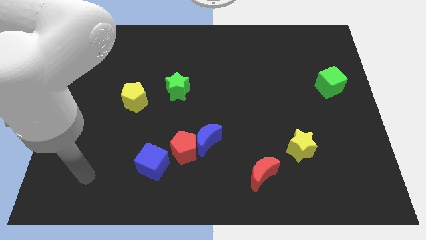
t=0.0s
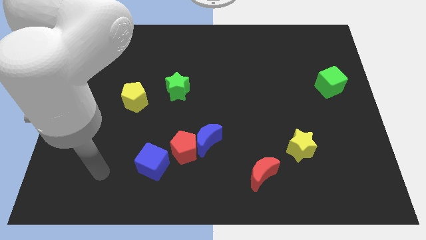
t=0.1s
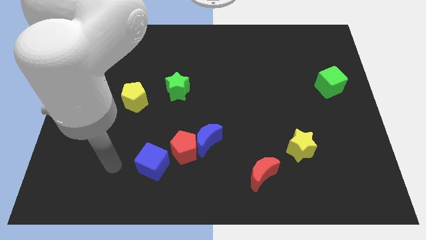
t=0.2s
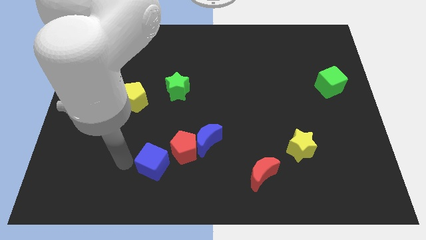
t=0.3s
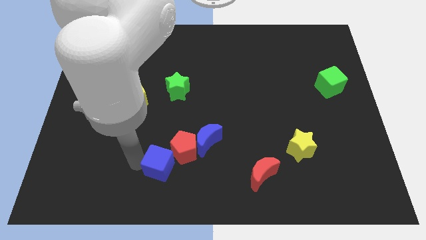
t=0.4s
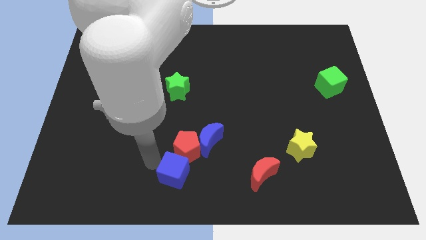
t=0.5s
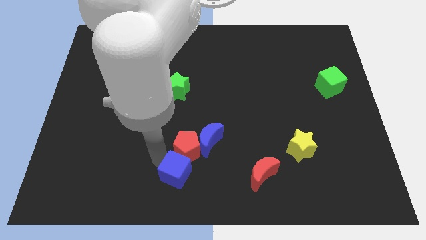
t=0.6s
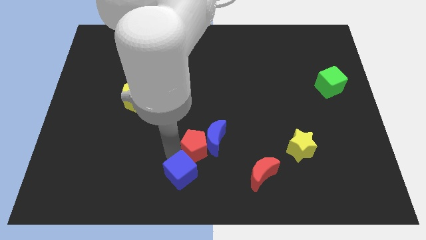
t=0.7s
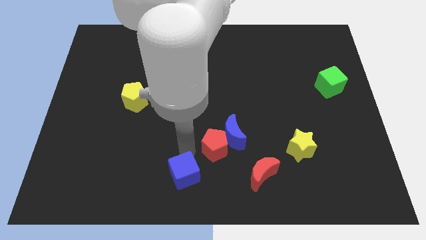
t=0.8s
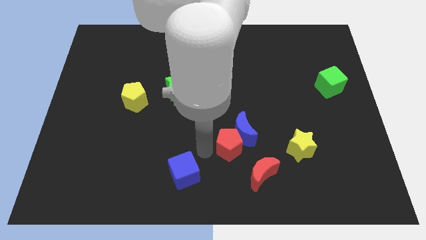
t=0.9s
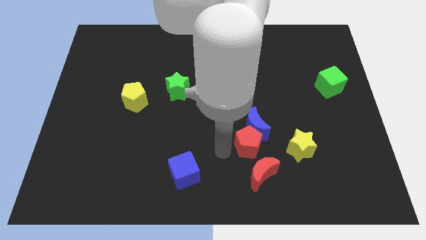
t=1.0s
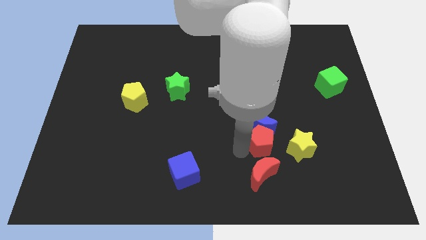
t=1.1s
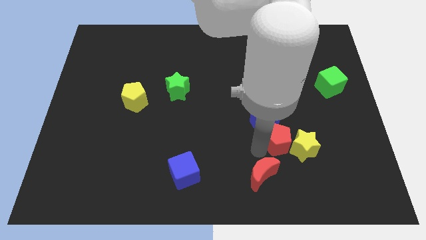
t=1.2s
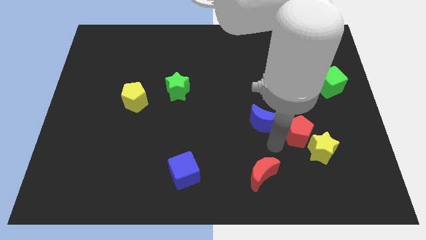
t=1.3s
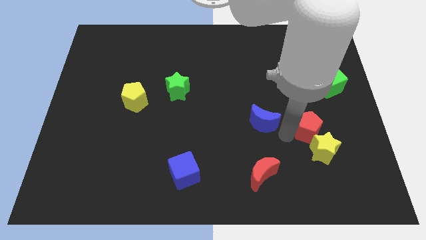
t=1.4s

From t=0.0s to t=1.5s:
move the blue moon away from the red pentagon

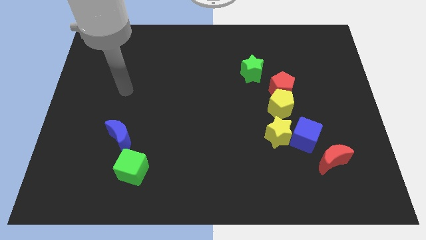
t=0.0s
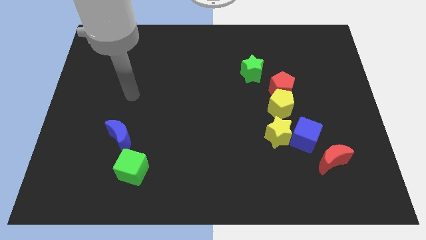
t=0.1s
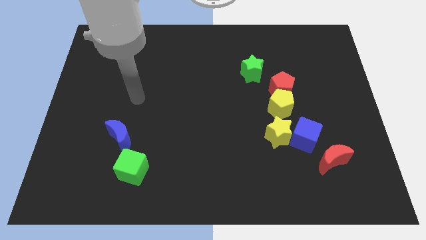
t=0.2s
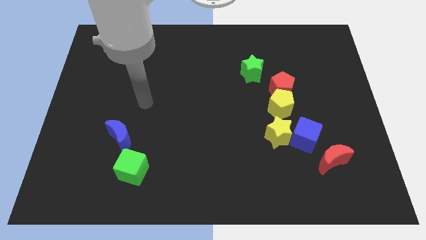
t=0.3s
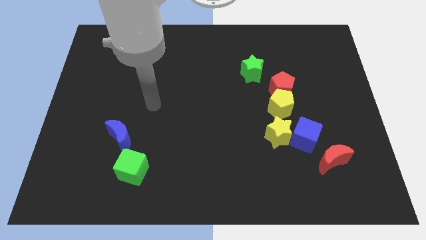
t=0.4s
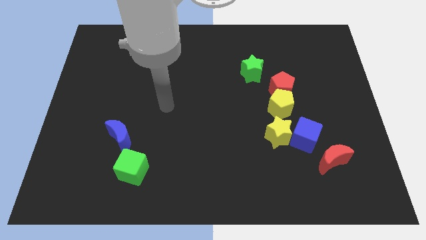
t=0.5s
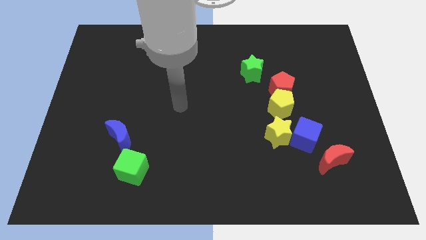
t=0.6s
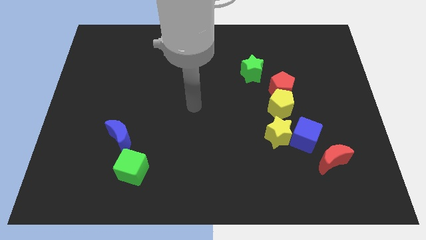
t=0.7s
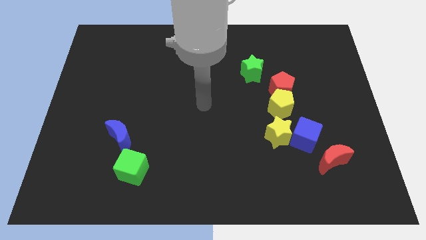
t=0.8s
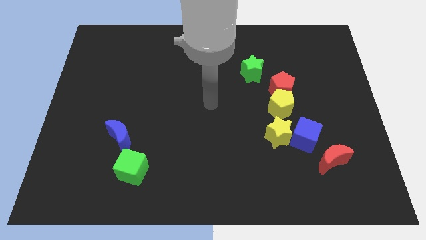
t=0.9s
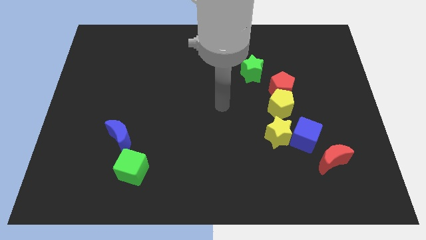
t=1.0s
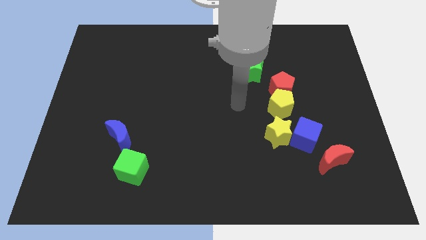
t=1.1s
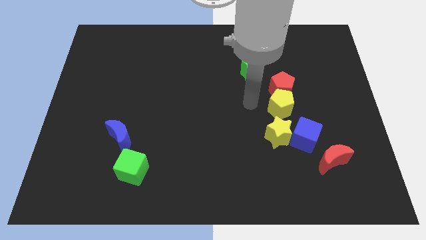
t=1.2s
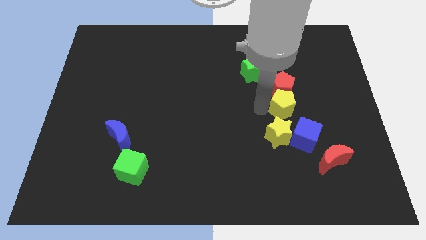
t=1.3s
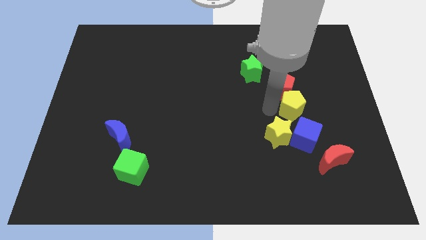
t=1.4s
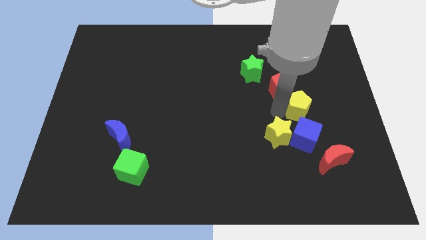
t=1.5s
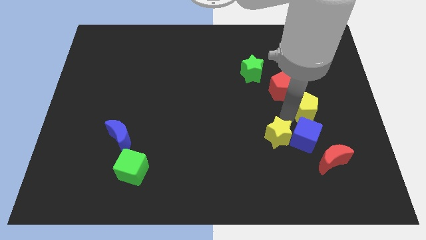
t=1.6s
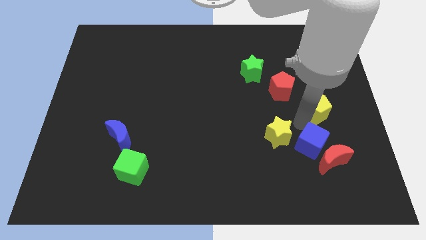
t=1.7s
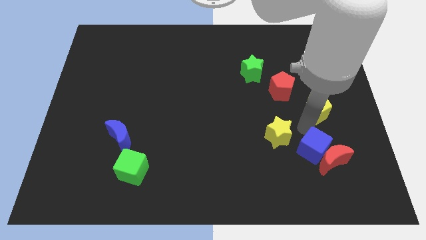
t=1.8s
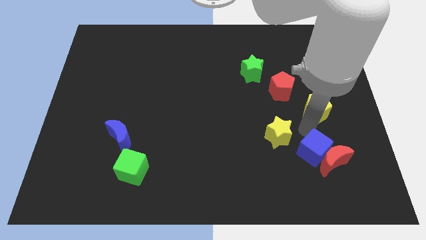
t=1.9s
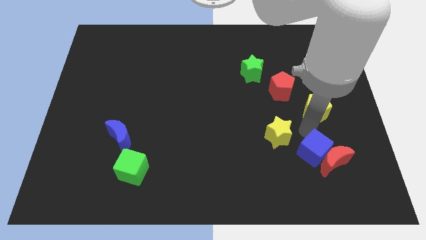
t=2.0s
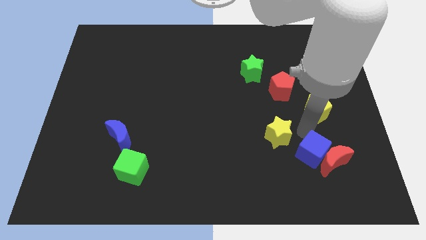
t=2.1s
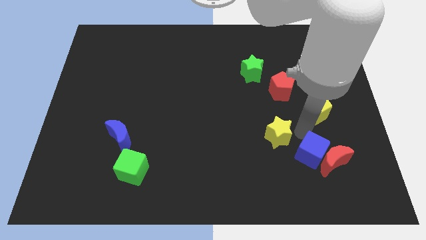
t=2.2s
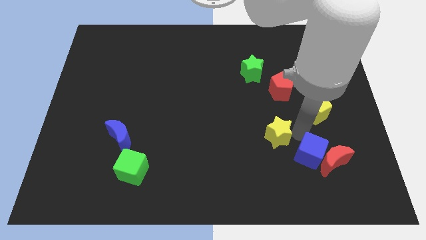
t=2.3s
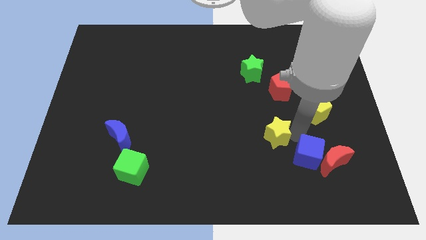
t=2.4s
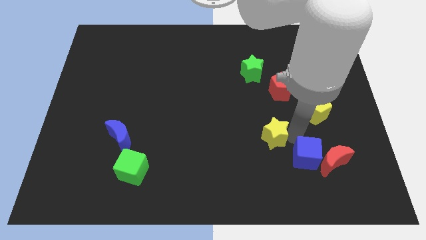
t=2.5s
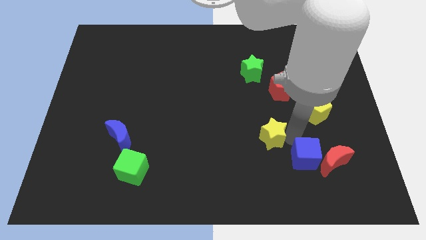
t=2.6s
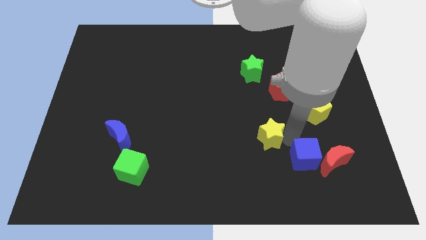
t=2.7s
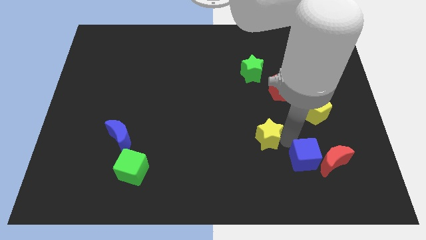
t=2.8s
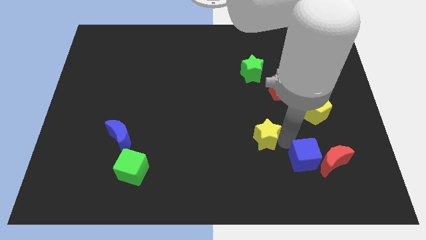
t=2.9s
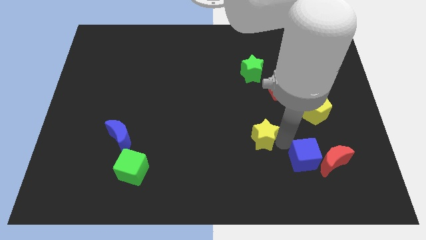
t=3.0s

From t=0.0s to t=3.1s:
pull the yellow star apart from the blue cube and yellow pentagon

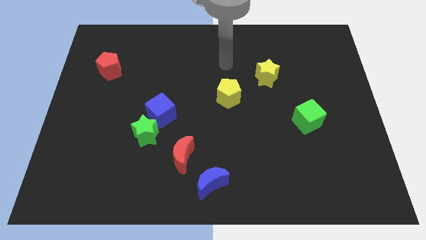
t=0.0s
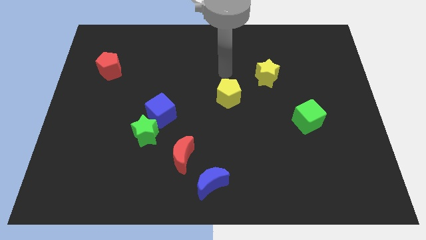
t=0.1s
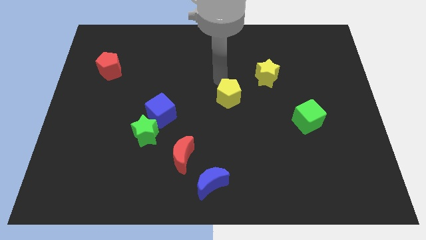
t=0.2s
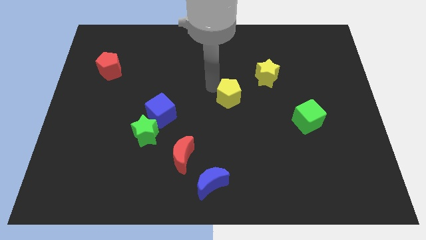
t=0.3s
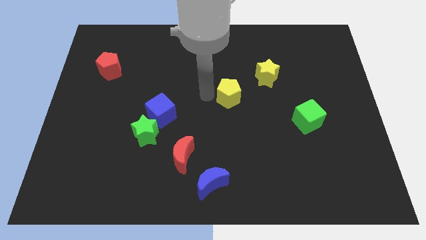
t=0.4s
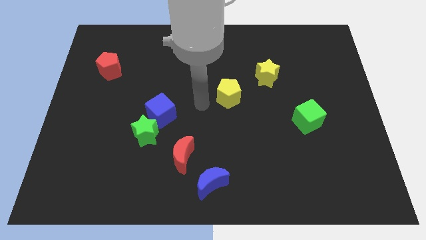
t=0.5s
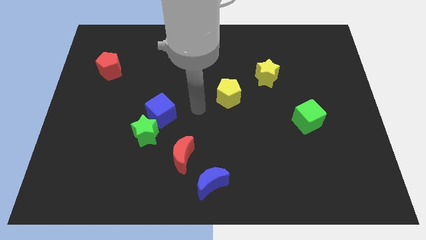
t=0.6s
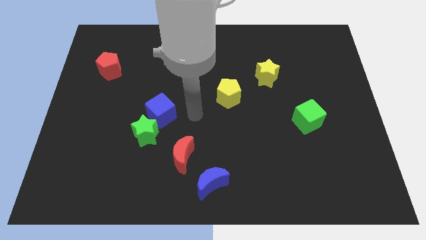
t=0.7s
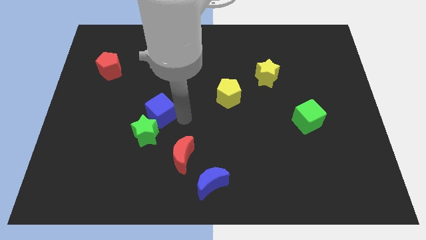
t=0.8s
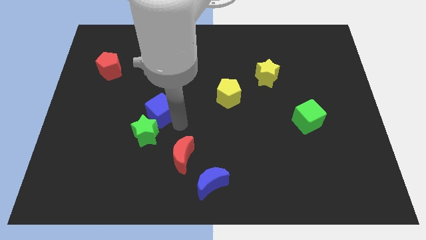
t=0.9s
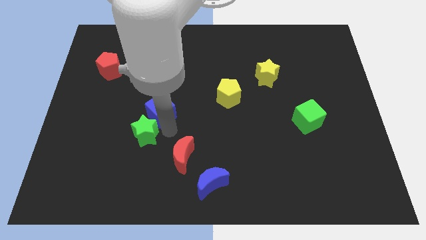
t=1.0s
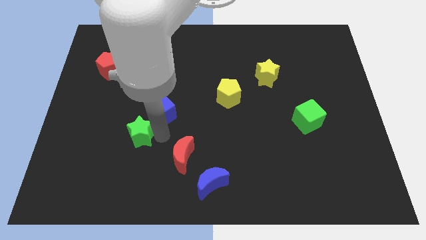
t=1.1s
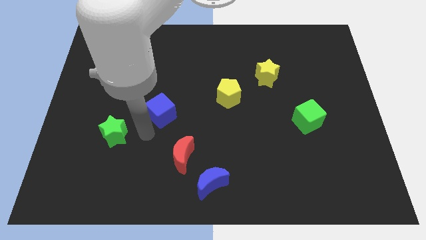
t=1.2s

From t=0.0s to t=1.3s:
move the blue cube away from the green star

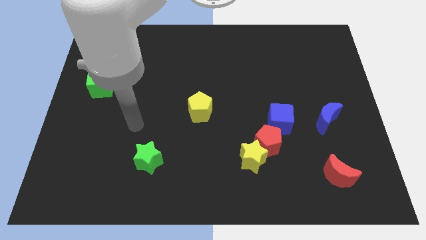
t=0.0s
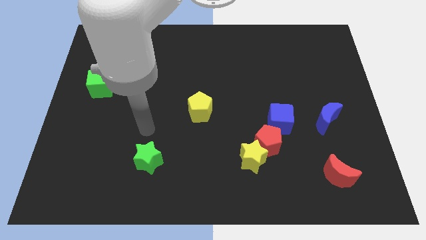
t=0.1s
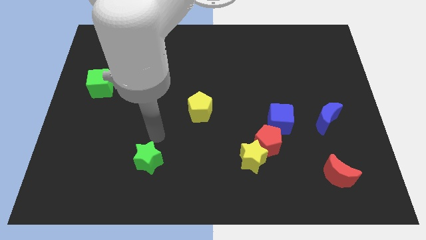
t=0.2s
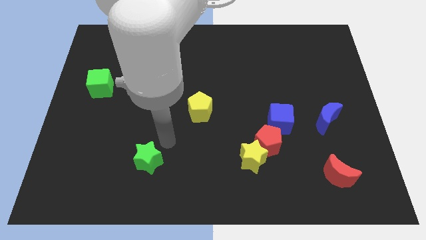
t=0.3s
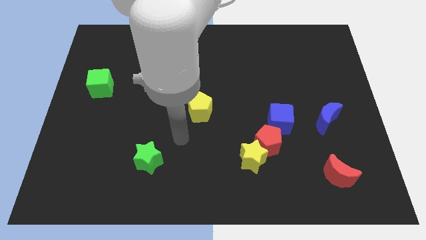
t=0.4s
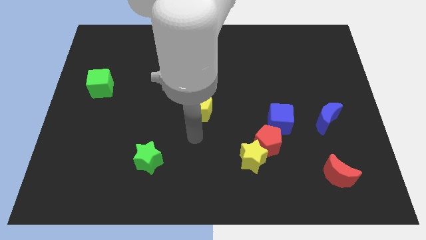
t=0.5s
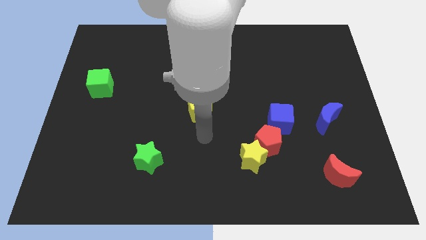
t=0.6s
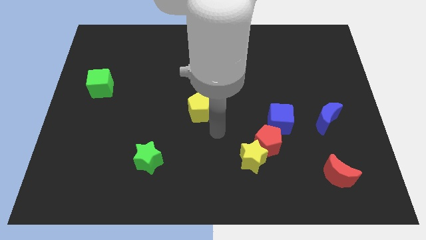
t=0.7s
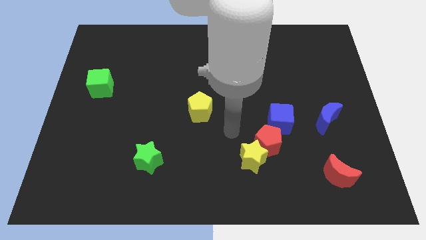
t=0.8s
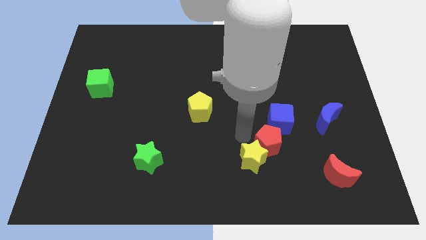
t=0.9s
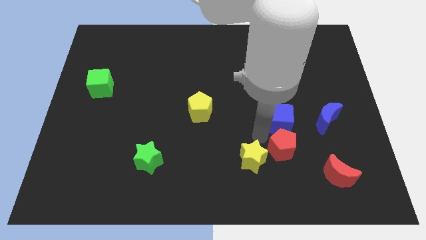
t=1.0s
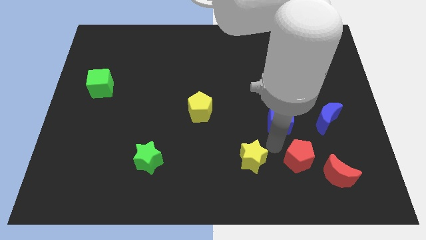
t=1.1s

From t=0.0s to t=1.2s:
separate the yellow star from the red pentagon

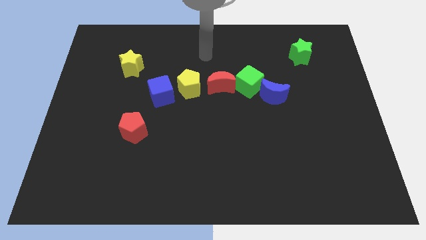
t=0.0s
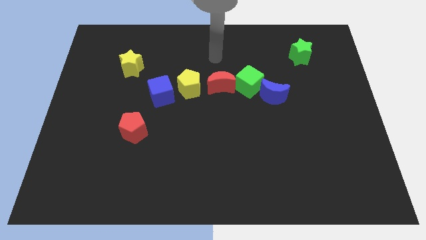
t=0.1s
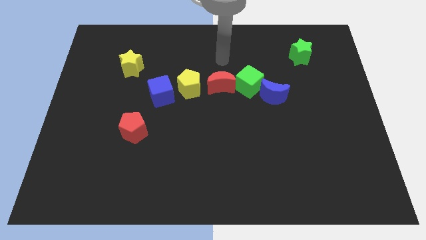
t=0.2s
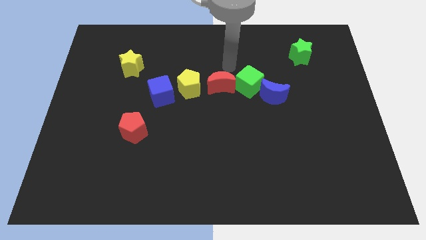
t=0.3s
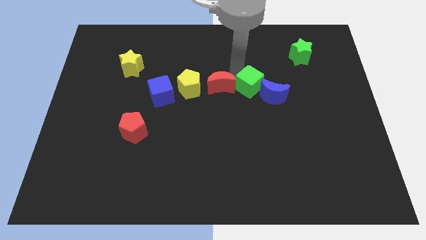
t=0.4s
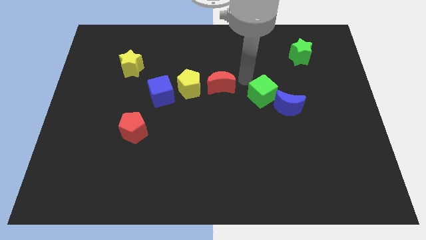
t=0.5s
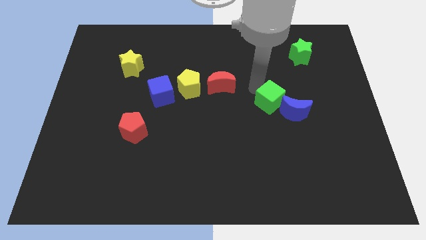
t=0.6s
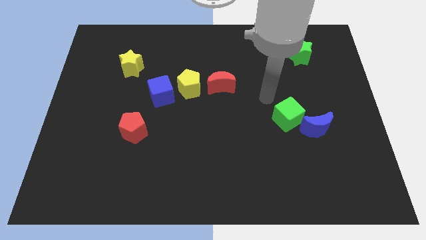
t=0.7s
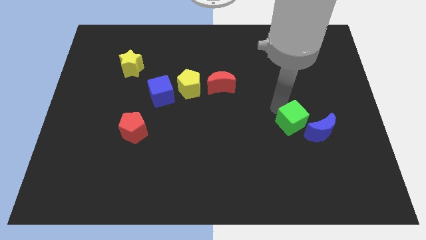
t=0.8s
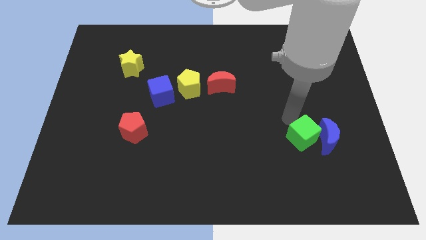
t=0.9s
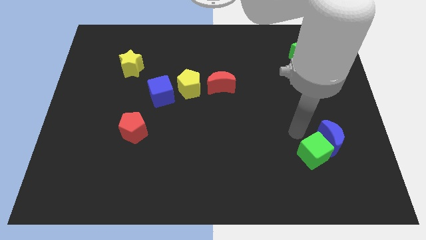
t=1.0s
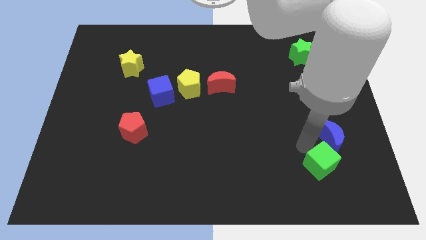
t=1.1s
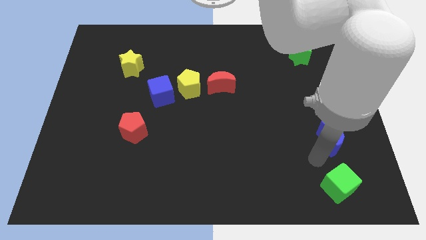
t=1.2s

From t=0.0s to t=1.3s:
move the blue moon away from the green cube

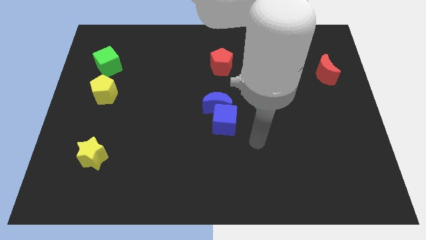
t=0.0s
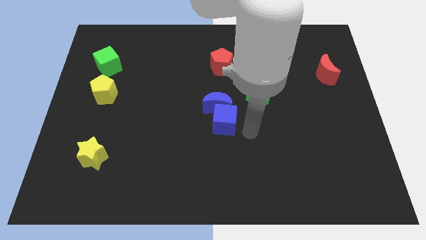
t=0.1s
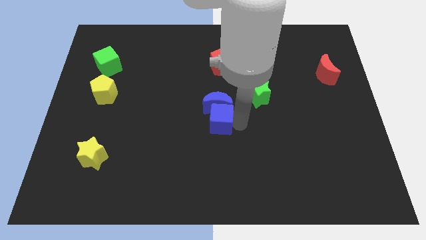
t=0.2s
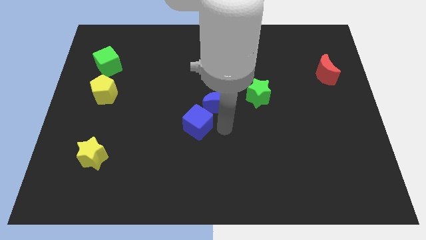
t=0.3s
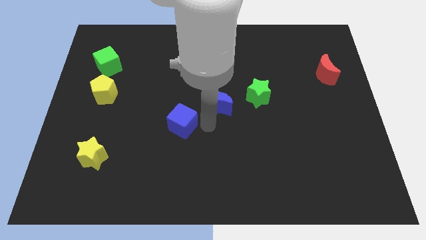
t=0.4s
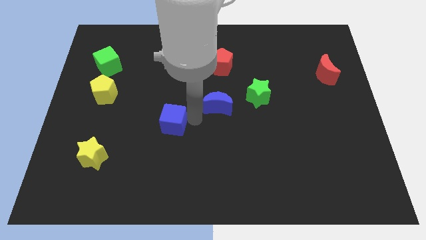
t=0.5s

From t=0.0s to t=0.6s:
pull the blue moon apart from the blue cube

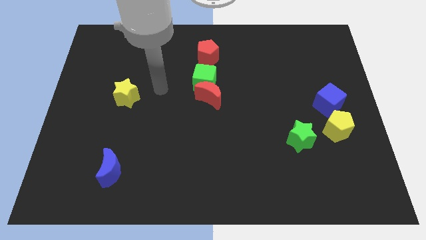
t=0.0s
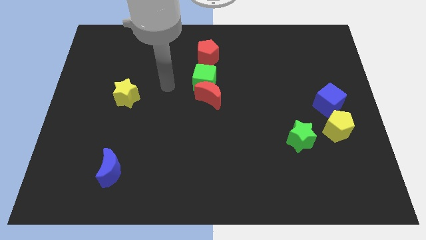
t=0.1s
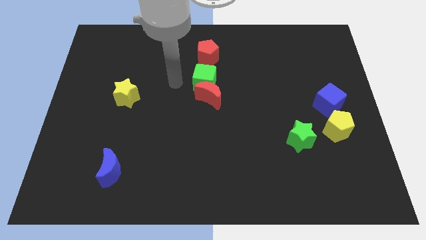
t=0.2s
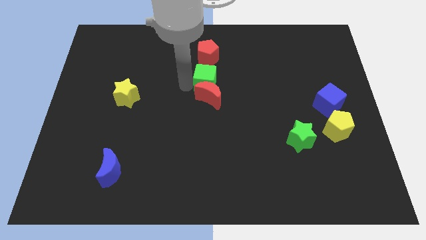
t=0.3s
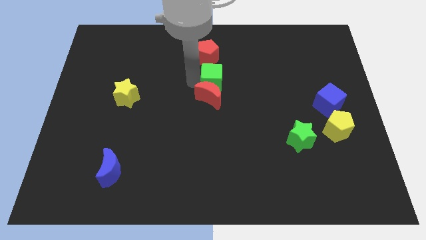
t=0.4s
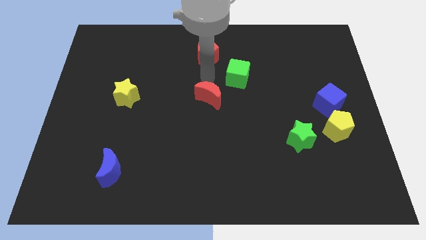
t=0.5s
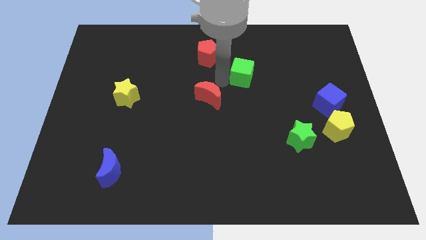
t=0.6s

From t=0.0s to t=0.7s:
pull the red moon apart from the green cube
